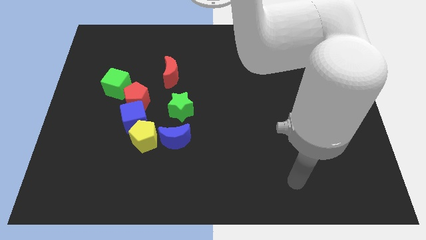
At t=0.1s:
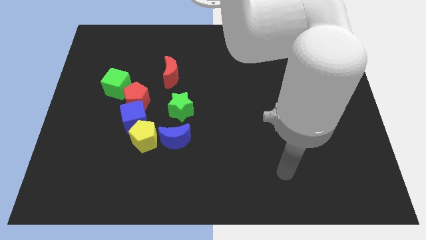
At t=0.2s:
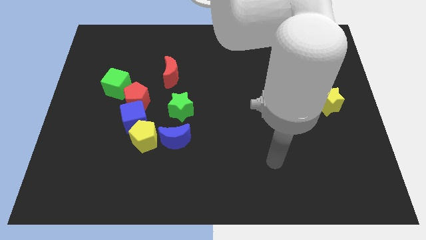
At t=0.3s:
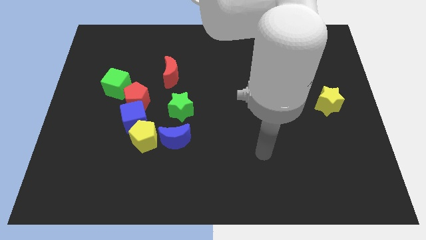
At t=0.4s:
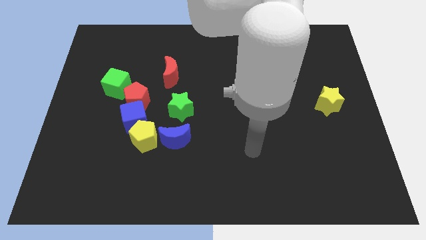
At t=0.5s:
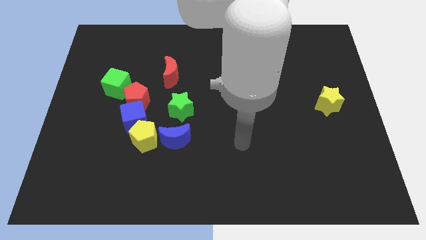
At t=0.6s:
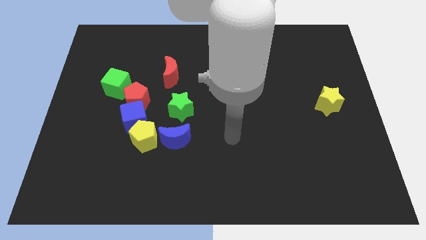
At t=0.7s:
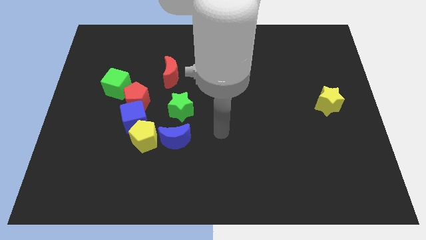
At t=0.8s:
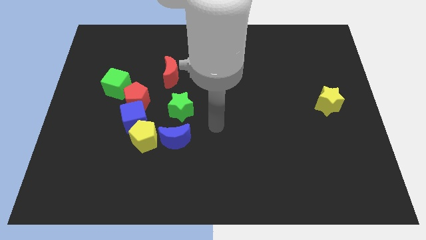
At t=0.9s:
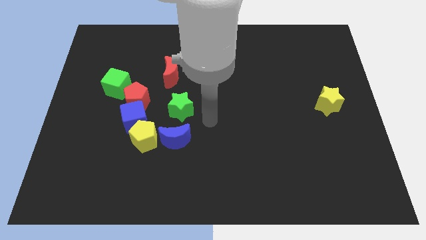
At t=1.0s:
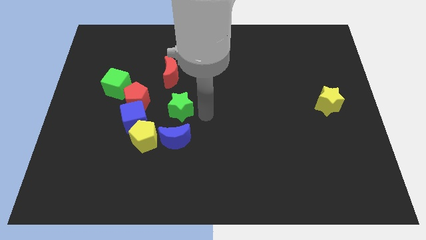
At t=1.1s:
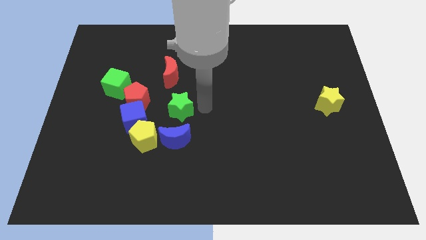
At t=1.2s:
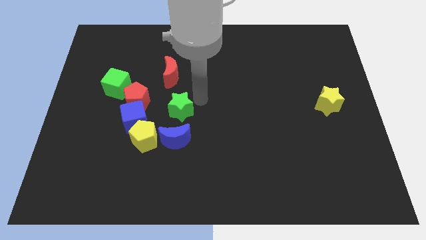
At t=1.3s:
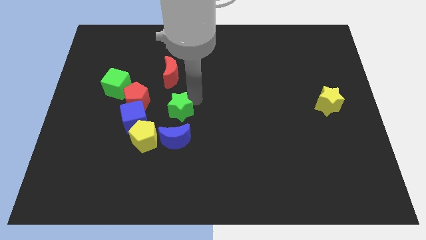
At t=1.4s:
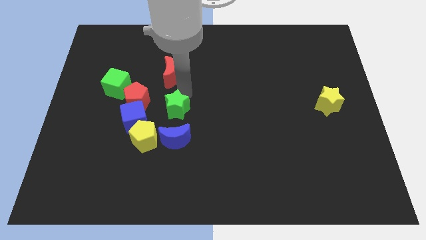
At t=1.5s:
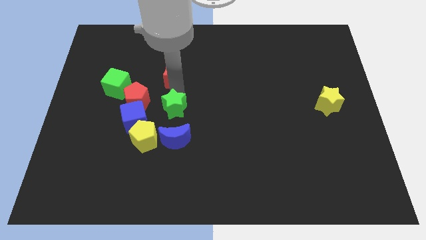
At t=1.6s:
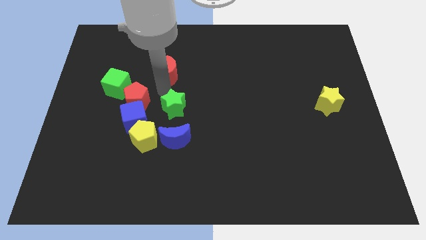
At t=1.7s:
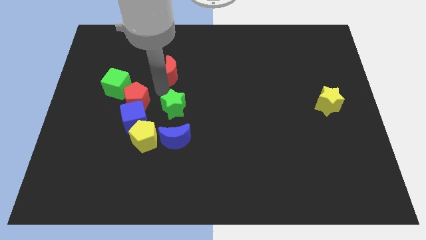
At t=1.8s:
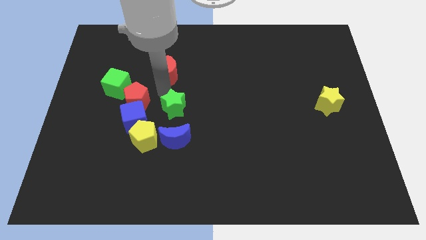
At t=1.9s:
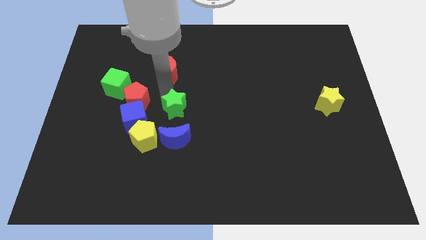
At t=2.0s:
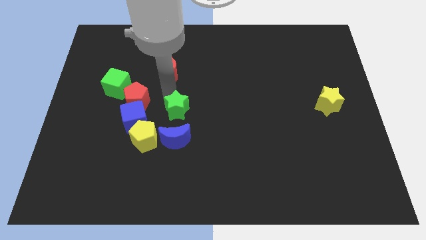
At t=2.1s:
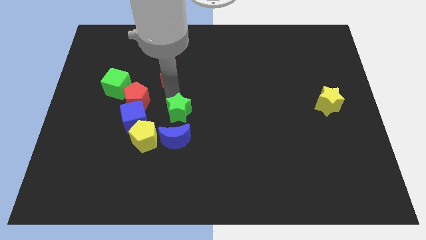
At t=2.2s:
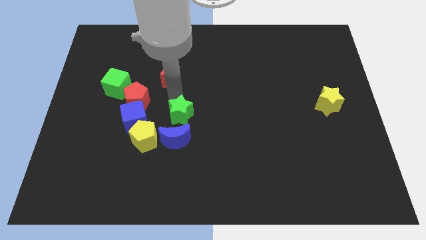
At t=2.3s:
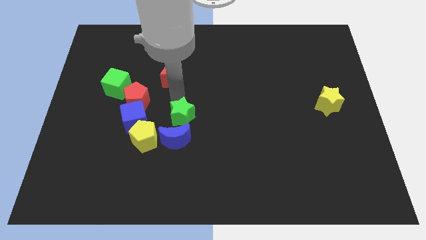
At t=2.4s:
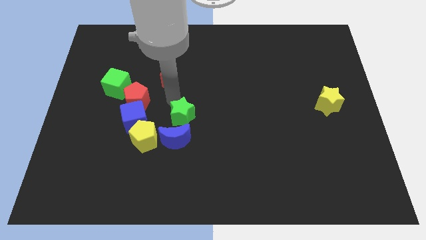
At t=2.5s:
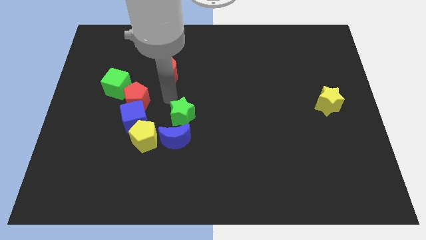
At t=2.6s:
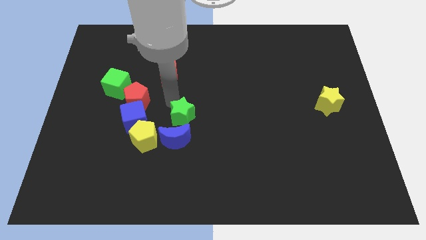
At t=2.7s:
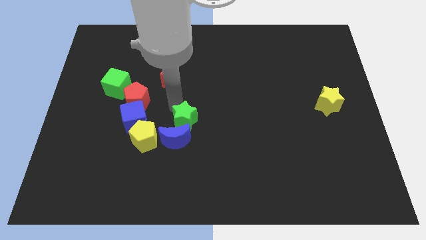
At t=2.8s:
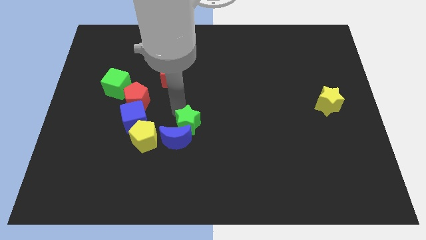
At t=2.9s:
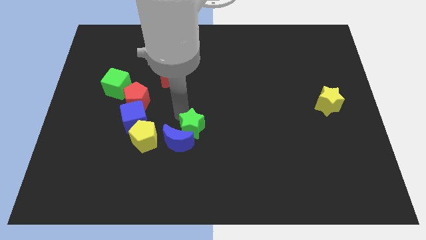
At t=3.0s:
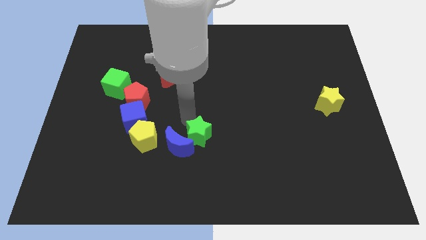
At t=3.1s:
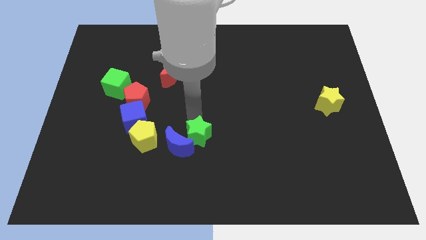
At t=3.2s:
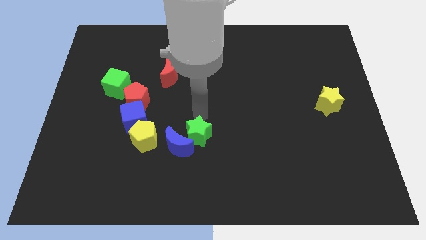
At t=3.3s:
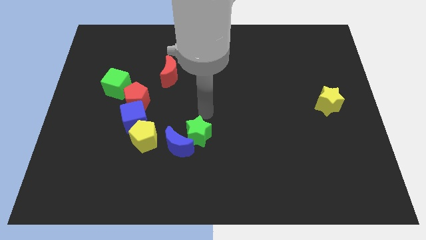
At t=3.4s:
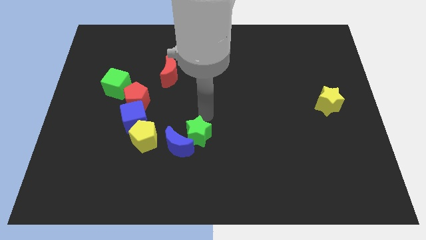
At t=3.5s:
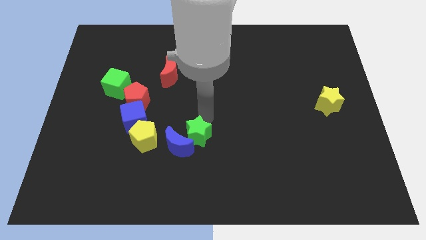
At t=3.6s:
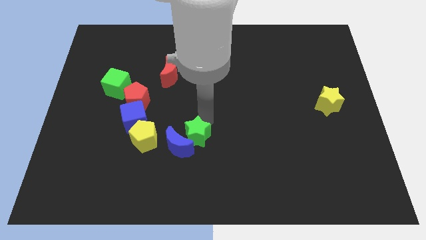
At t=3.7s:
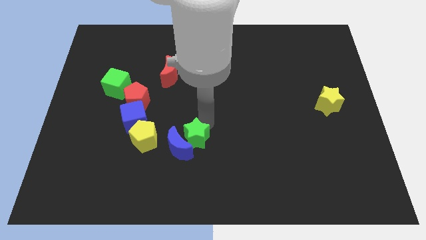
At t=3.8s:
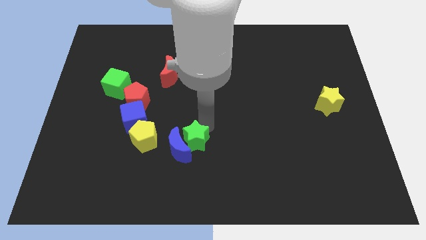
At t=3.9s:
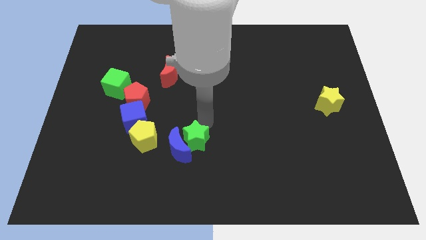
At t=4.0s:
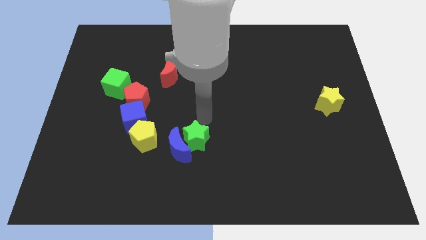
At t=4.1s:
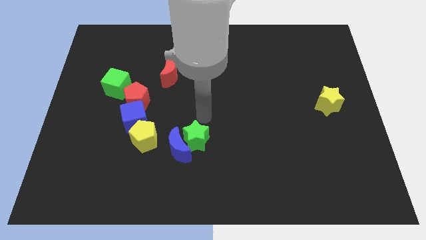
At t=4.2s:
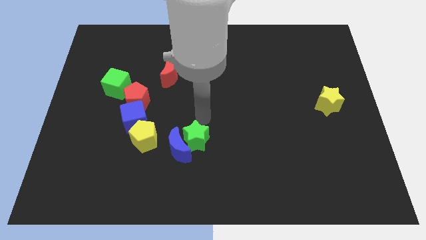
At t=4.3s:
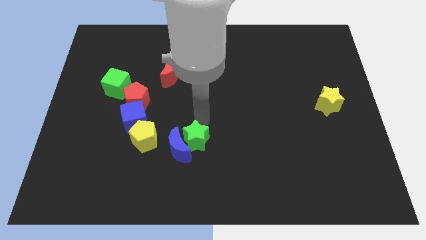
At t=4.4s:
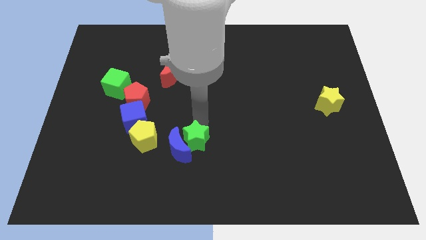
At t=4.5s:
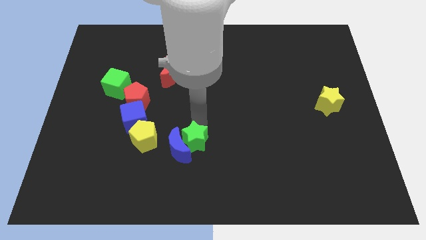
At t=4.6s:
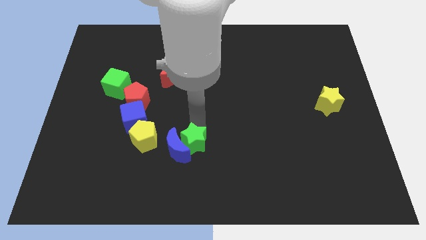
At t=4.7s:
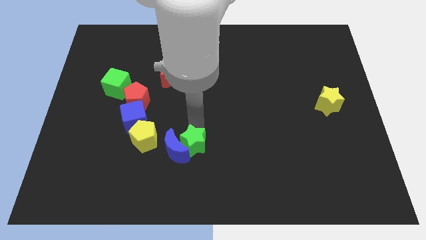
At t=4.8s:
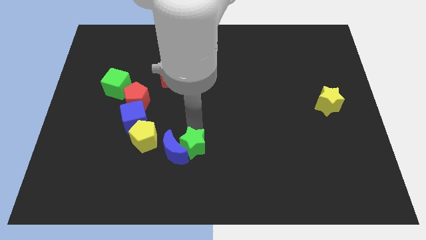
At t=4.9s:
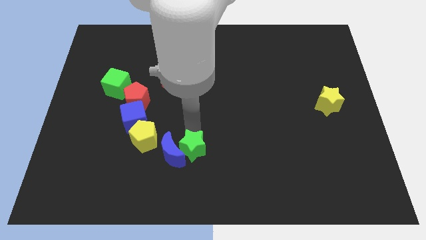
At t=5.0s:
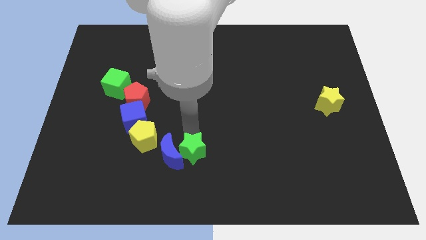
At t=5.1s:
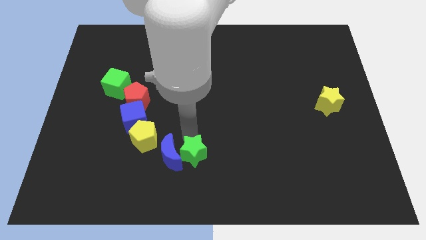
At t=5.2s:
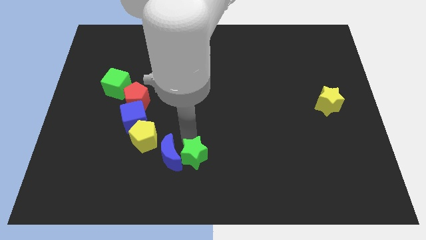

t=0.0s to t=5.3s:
push the green star to the bottom

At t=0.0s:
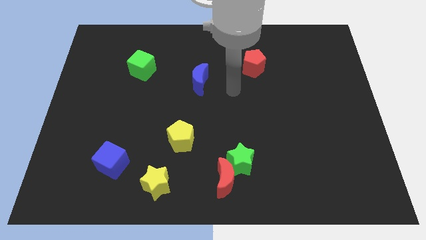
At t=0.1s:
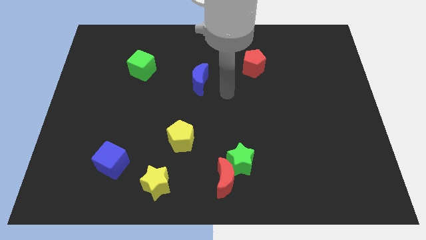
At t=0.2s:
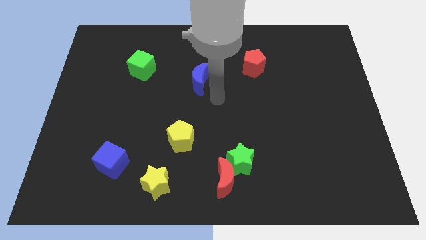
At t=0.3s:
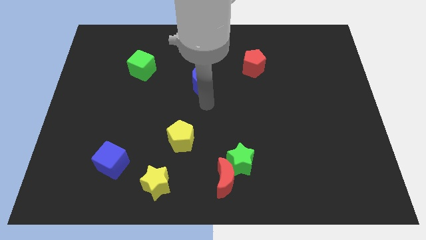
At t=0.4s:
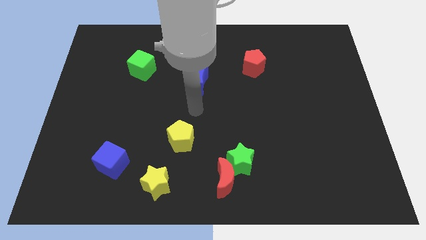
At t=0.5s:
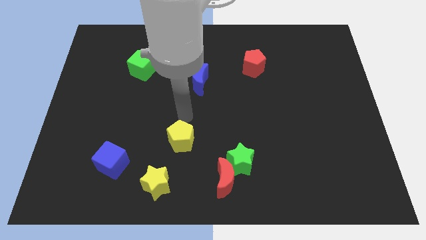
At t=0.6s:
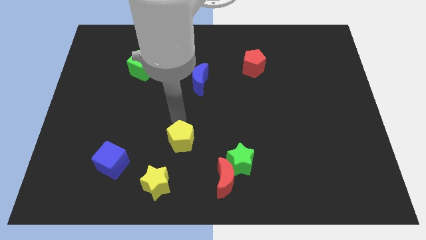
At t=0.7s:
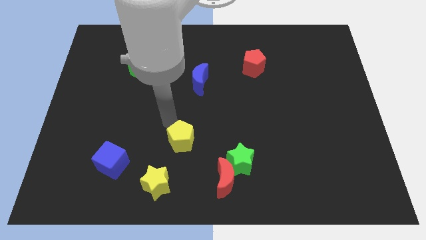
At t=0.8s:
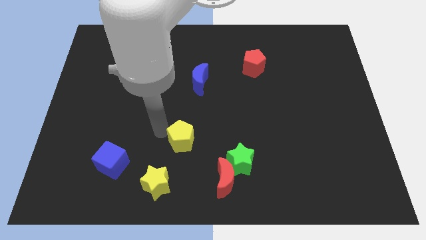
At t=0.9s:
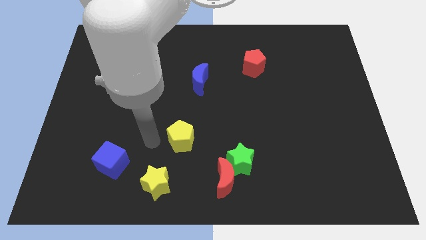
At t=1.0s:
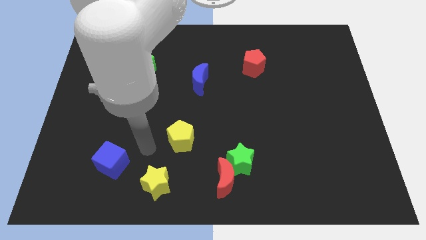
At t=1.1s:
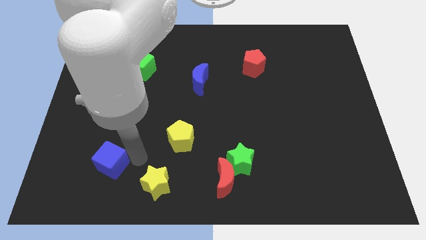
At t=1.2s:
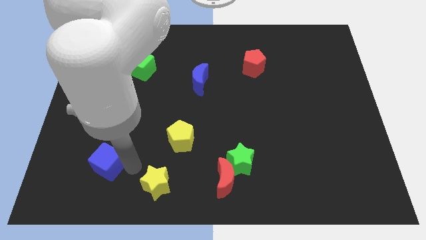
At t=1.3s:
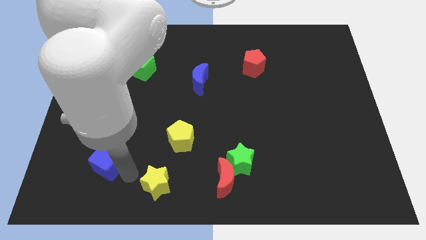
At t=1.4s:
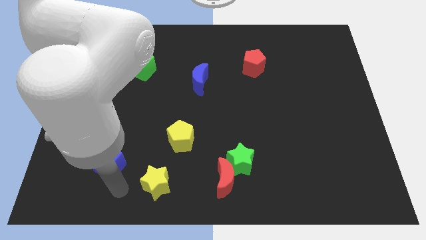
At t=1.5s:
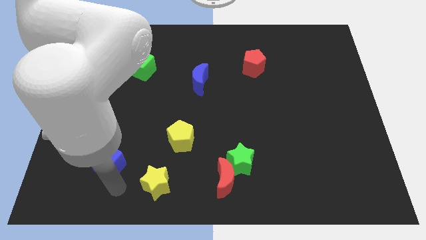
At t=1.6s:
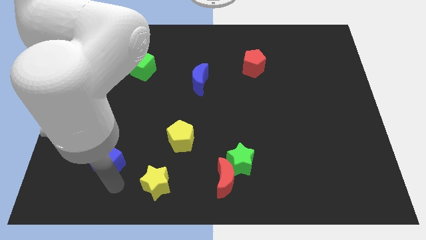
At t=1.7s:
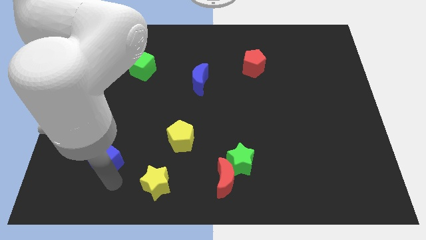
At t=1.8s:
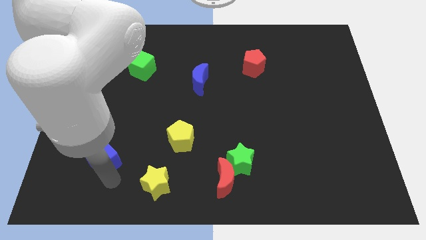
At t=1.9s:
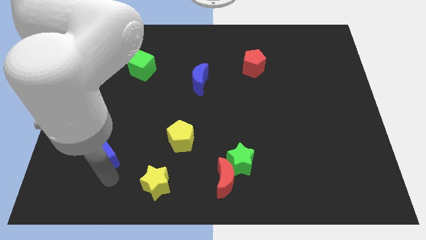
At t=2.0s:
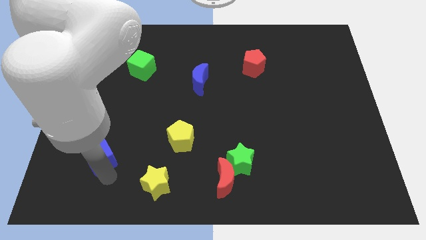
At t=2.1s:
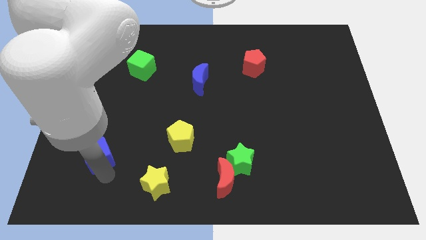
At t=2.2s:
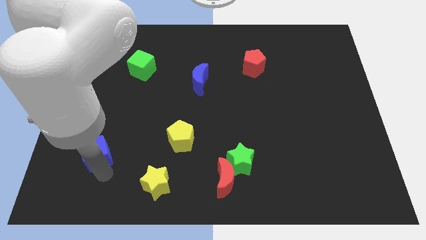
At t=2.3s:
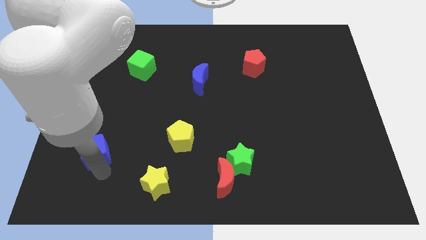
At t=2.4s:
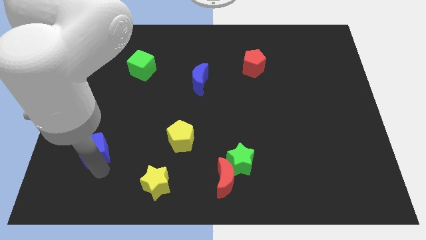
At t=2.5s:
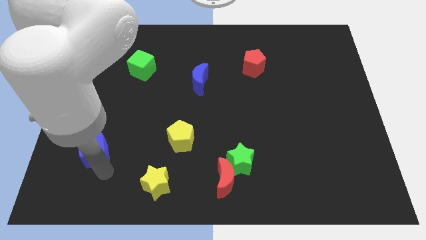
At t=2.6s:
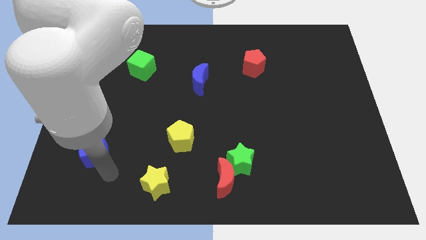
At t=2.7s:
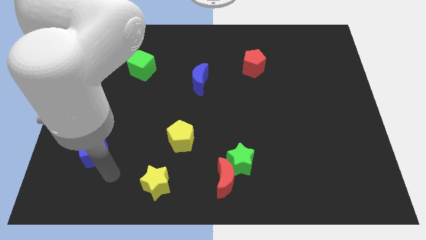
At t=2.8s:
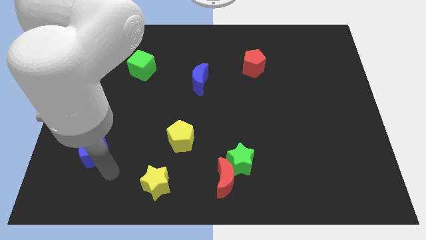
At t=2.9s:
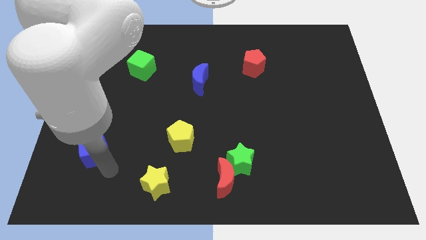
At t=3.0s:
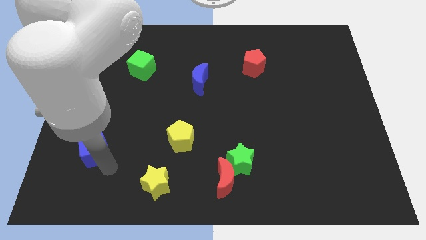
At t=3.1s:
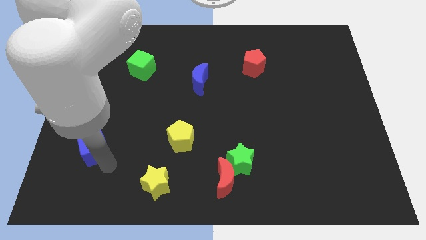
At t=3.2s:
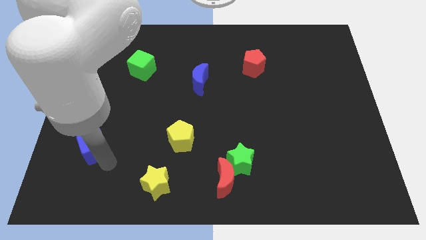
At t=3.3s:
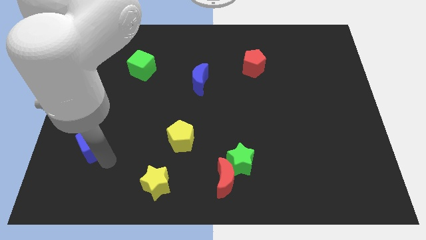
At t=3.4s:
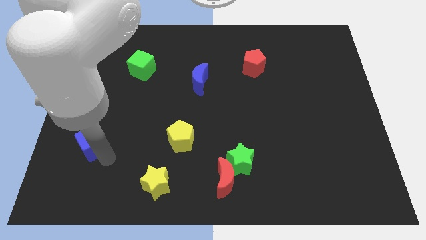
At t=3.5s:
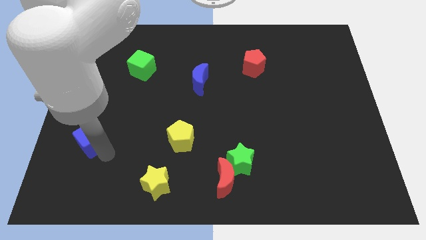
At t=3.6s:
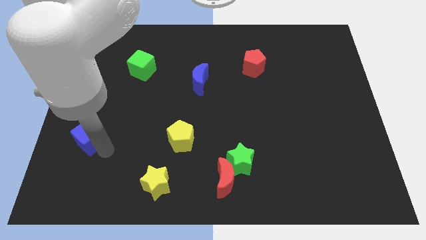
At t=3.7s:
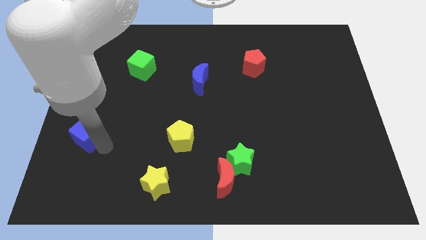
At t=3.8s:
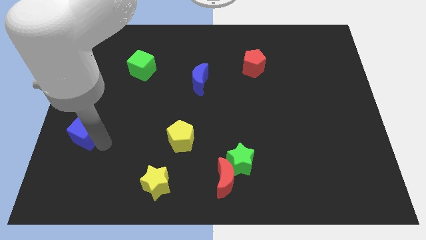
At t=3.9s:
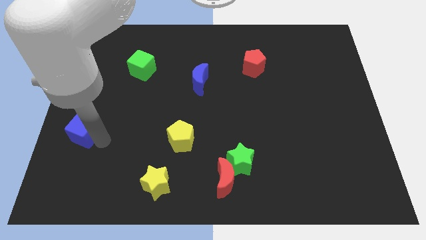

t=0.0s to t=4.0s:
move the blue cube to the left side
